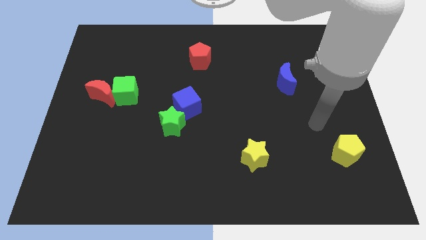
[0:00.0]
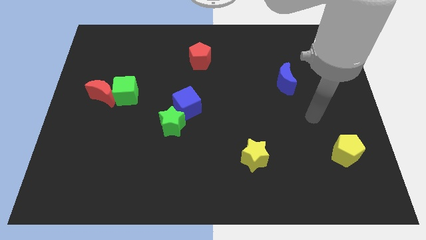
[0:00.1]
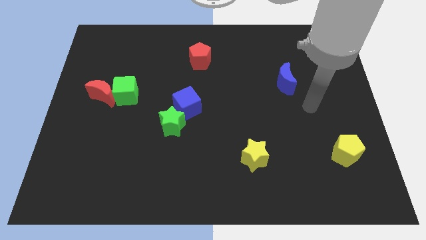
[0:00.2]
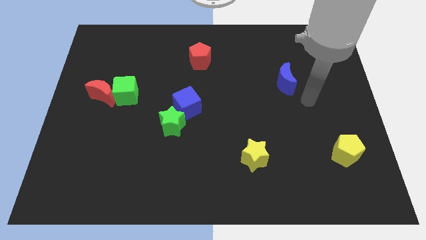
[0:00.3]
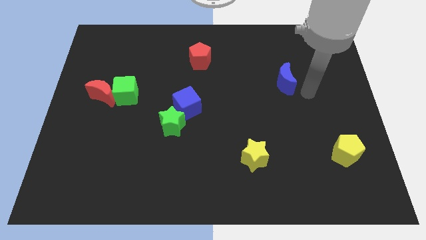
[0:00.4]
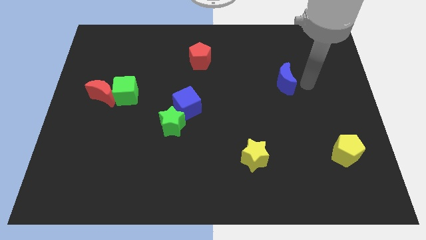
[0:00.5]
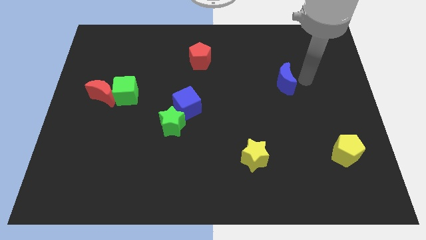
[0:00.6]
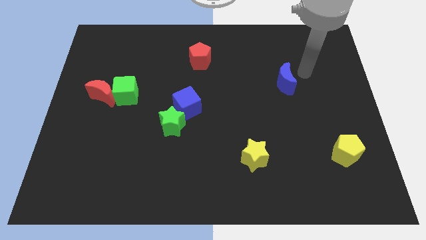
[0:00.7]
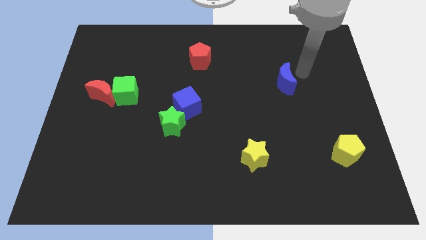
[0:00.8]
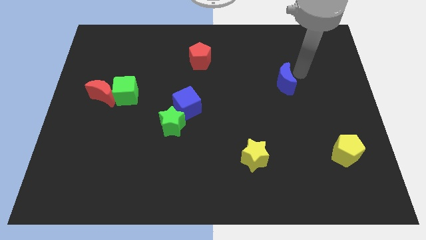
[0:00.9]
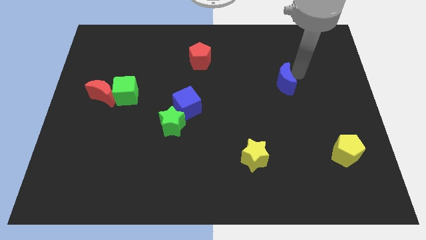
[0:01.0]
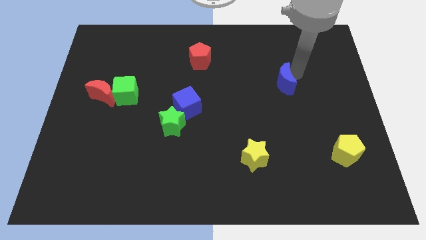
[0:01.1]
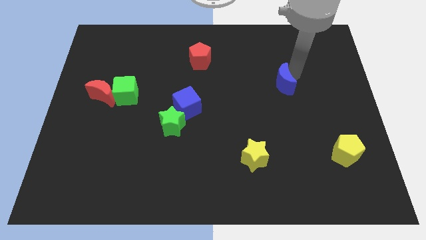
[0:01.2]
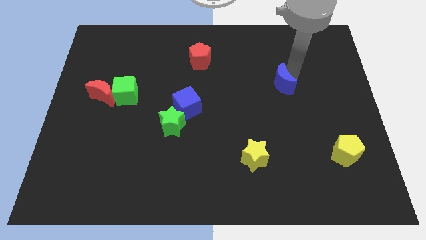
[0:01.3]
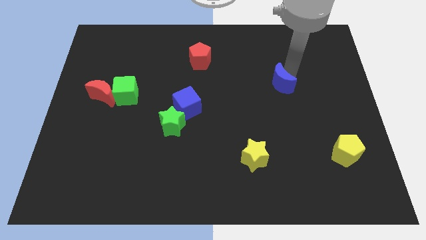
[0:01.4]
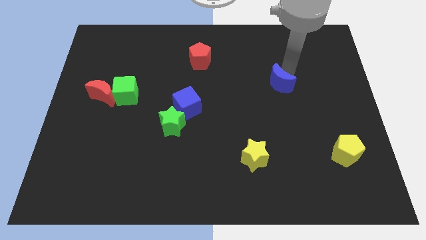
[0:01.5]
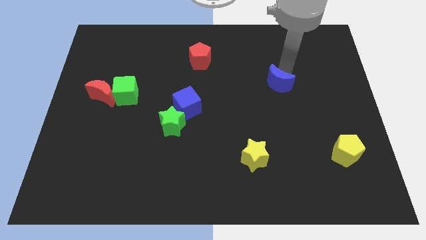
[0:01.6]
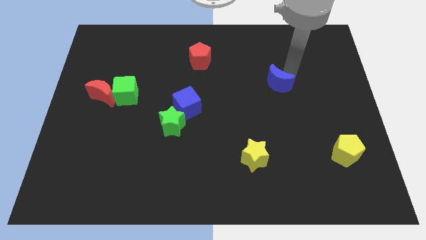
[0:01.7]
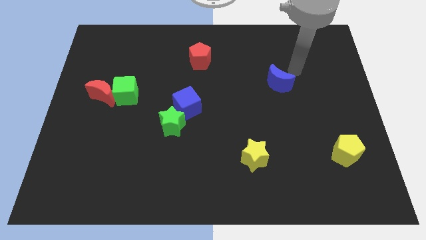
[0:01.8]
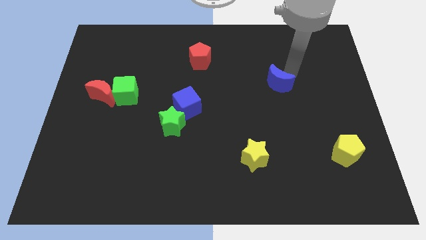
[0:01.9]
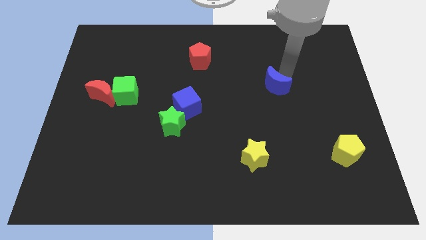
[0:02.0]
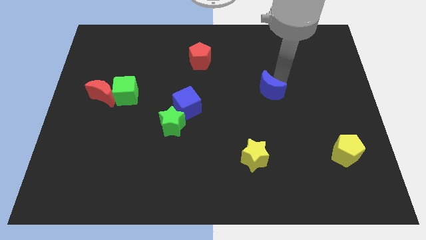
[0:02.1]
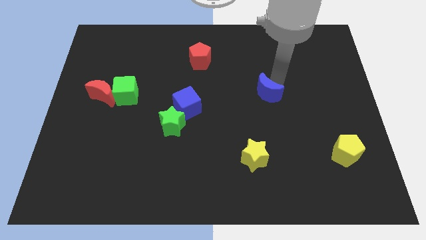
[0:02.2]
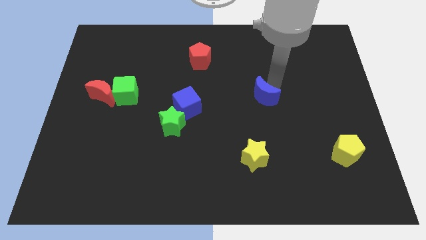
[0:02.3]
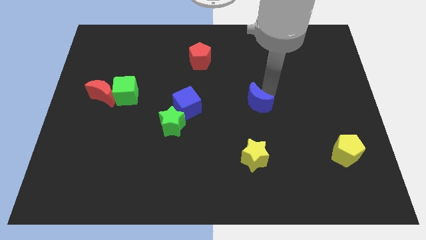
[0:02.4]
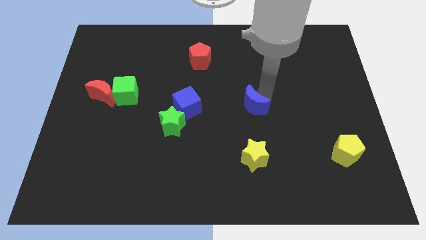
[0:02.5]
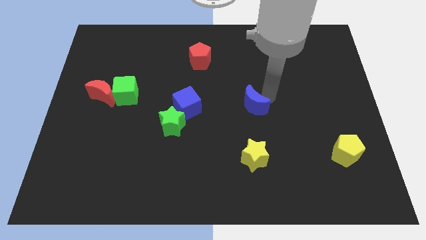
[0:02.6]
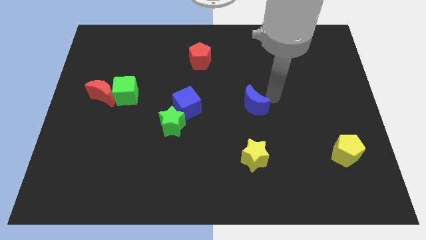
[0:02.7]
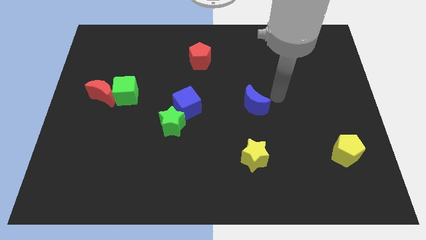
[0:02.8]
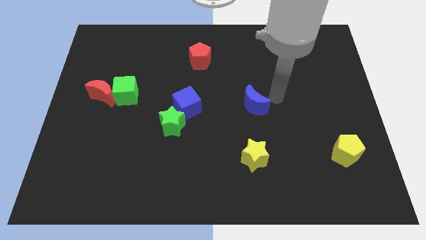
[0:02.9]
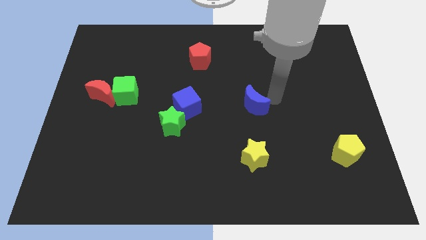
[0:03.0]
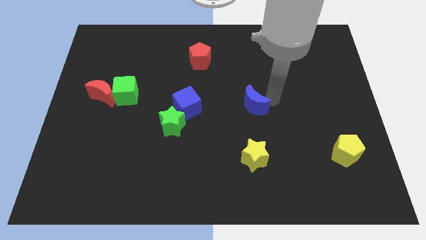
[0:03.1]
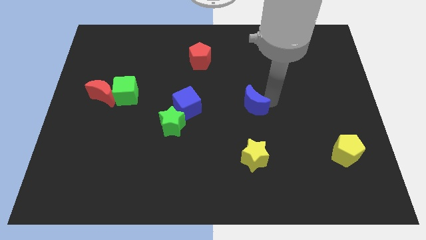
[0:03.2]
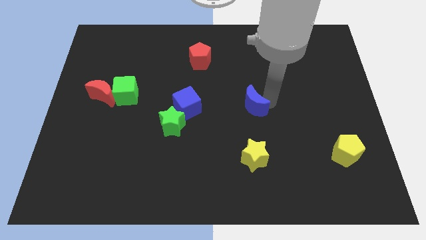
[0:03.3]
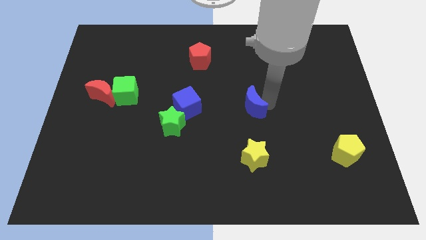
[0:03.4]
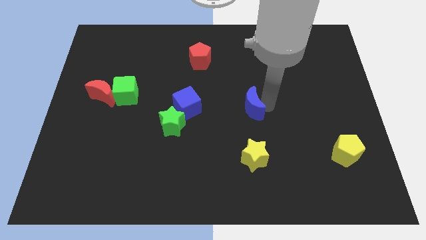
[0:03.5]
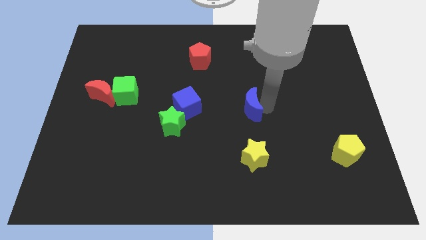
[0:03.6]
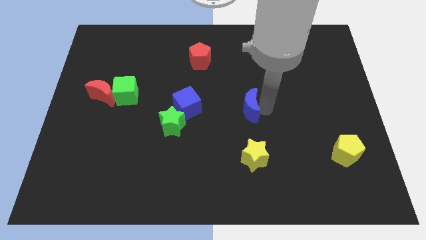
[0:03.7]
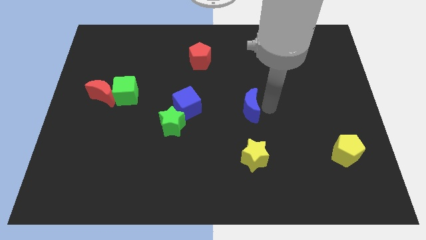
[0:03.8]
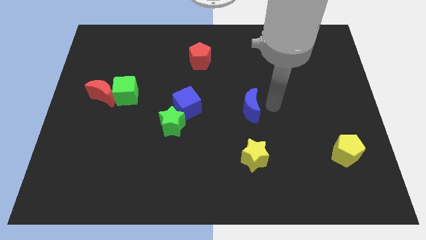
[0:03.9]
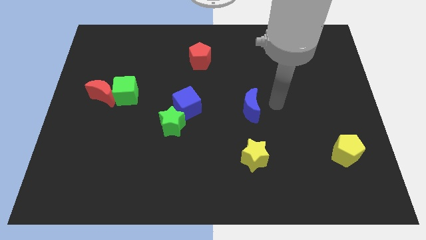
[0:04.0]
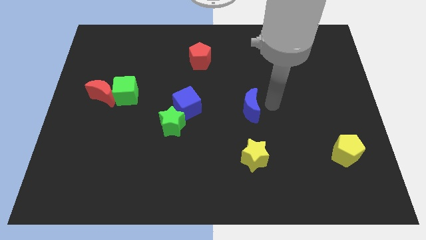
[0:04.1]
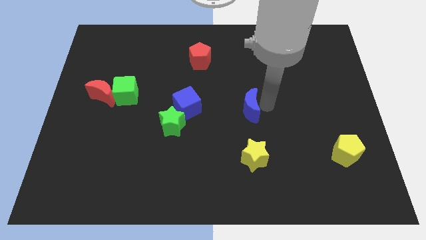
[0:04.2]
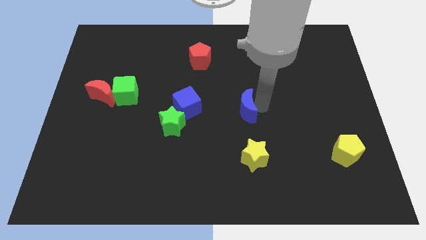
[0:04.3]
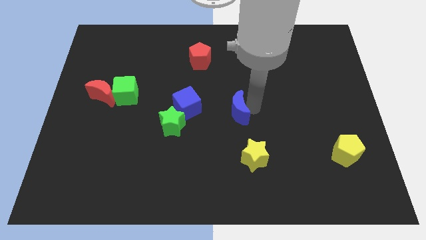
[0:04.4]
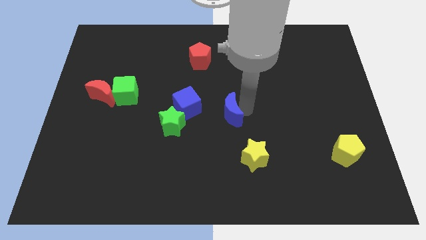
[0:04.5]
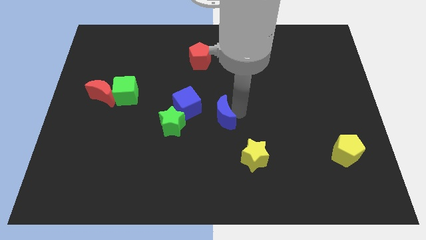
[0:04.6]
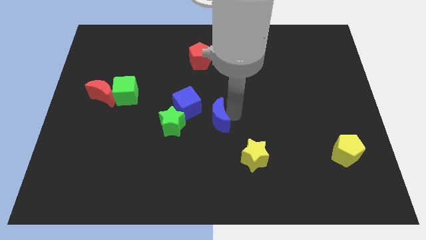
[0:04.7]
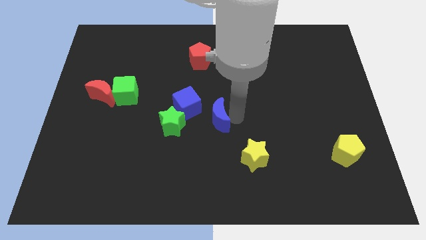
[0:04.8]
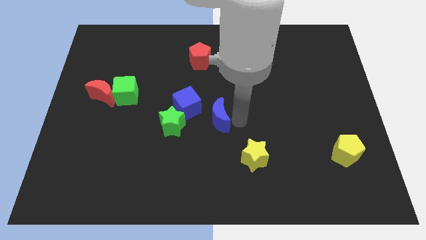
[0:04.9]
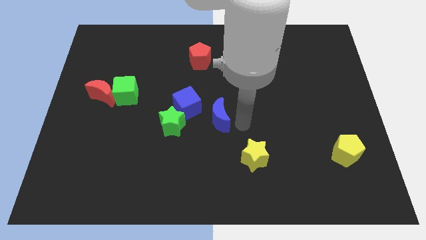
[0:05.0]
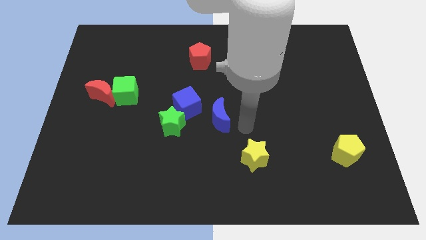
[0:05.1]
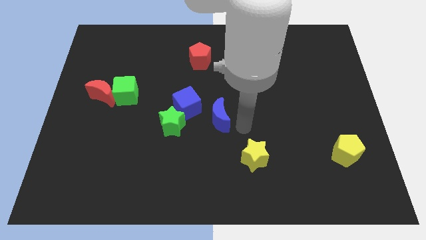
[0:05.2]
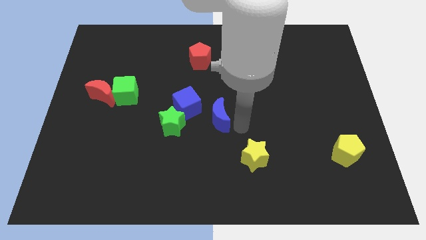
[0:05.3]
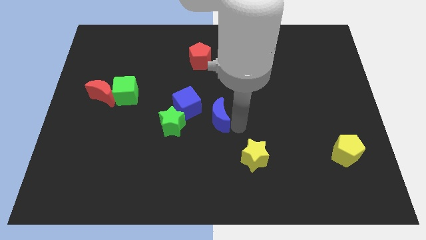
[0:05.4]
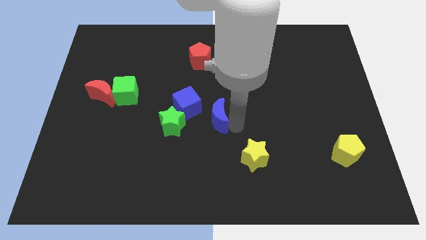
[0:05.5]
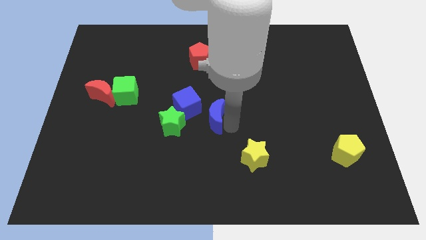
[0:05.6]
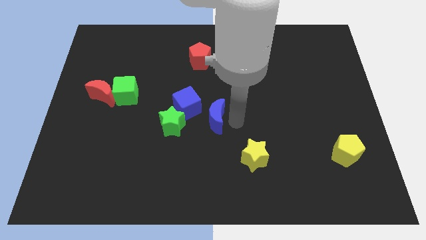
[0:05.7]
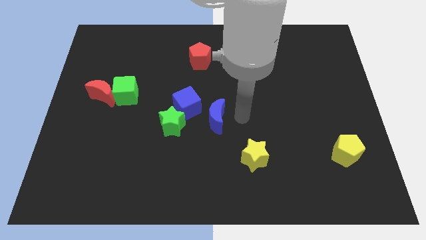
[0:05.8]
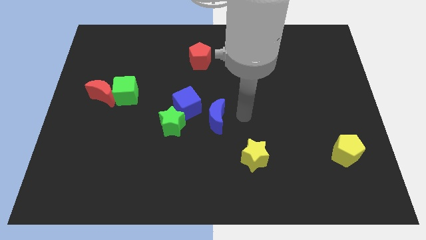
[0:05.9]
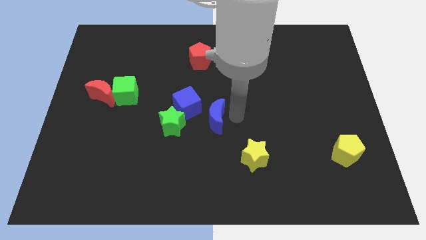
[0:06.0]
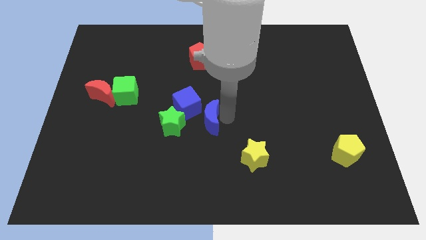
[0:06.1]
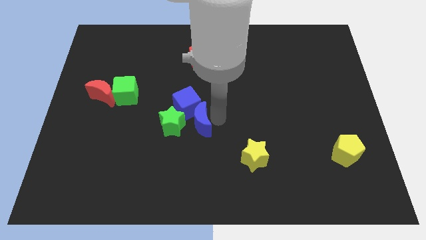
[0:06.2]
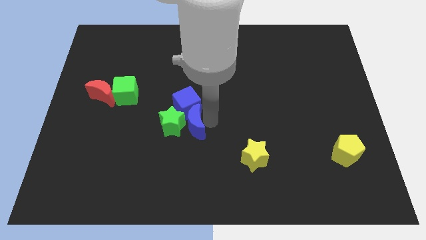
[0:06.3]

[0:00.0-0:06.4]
put the blue moon to the green star

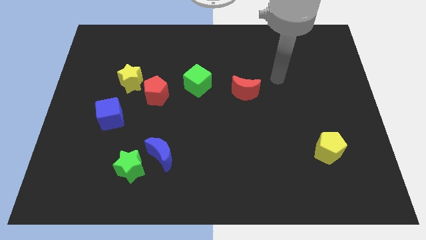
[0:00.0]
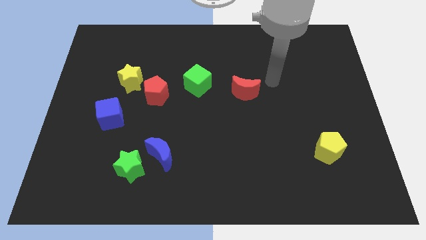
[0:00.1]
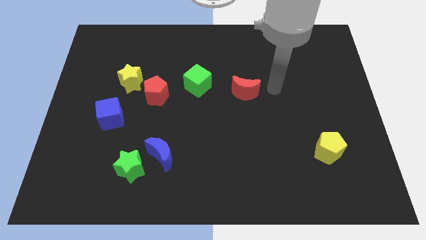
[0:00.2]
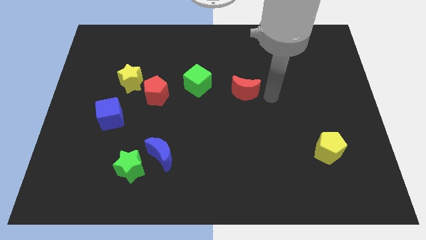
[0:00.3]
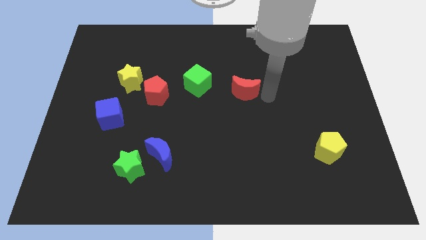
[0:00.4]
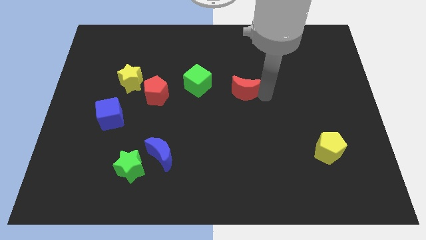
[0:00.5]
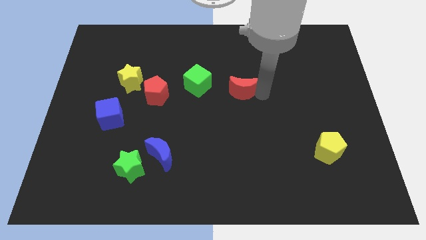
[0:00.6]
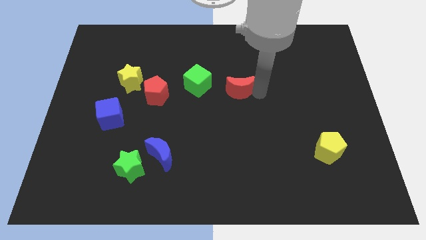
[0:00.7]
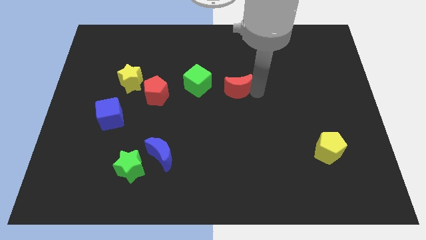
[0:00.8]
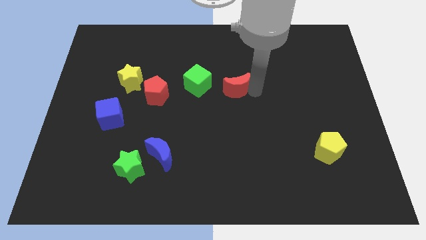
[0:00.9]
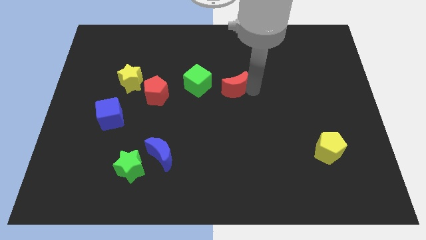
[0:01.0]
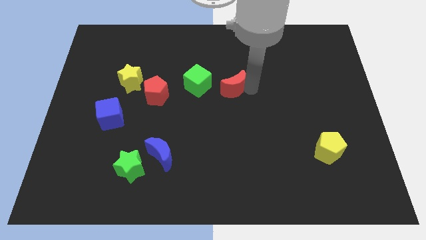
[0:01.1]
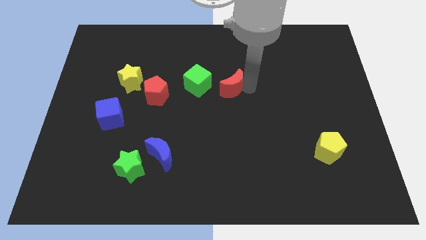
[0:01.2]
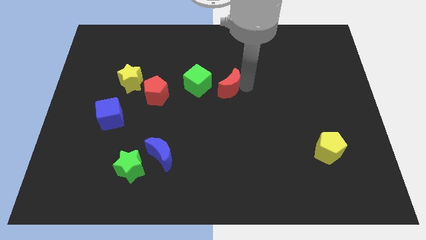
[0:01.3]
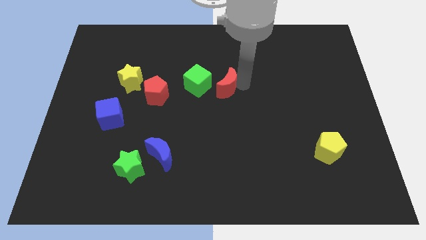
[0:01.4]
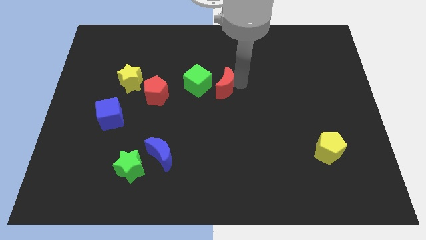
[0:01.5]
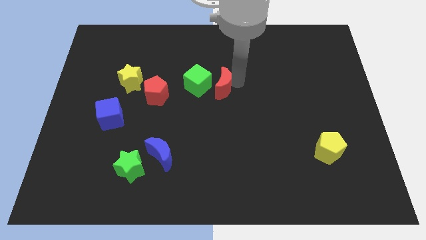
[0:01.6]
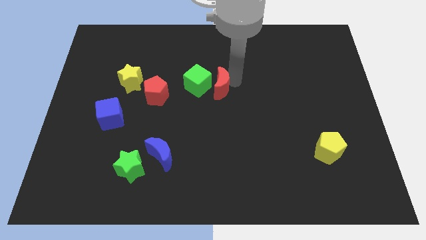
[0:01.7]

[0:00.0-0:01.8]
put the red moon to the green cube
